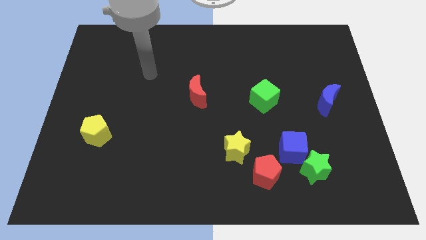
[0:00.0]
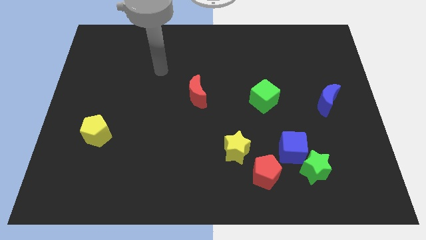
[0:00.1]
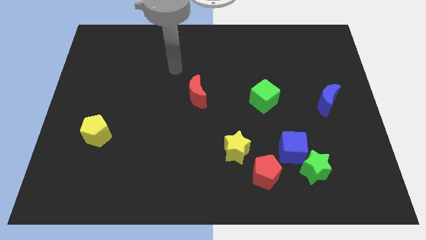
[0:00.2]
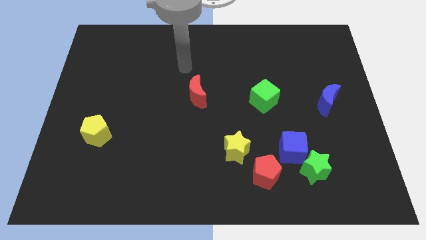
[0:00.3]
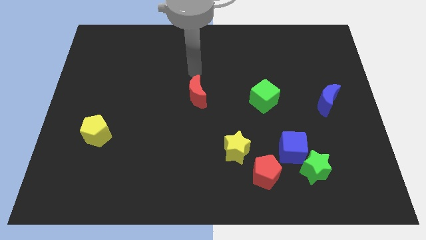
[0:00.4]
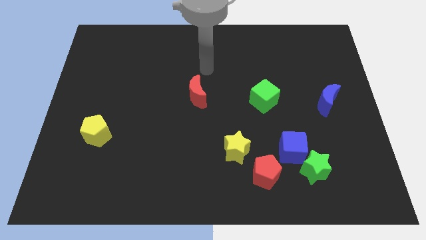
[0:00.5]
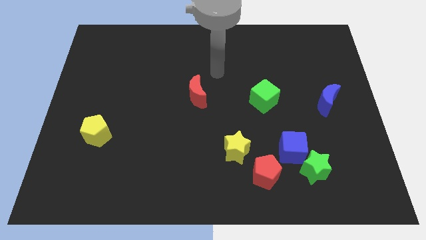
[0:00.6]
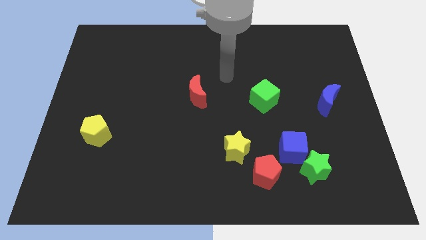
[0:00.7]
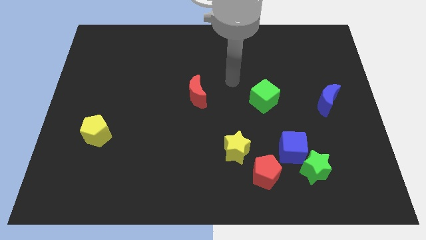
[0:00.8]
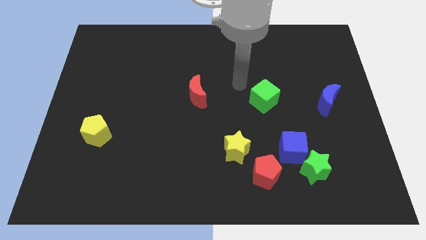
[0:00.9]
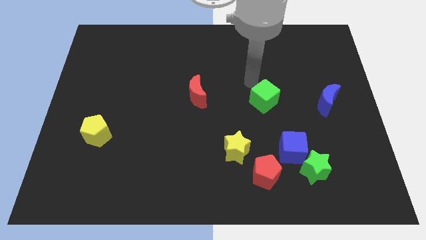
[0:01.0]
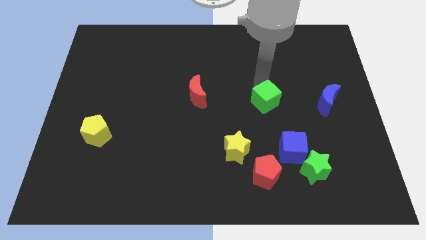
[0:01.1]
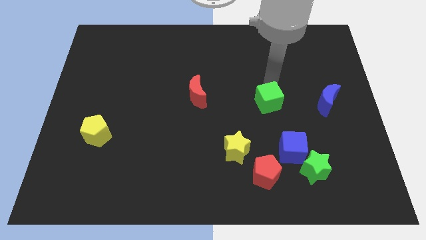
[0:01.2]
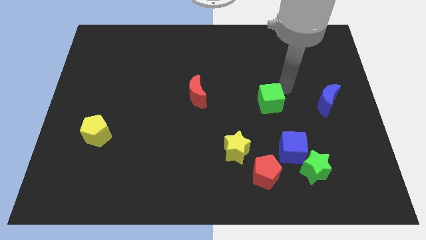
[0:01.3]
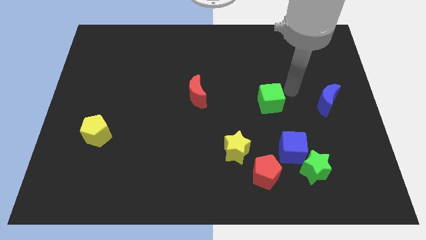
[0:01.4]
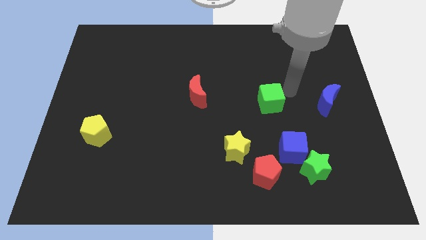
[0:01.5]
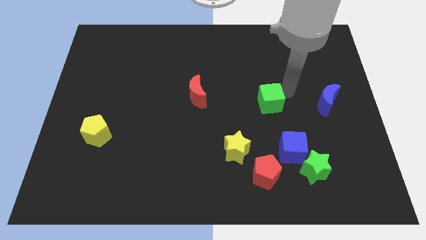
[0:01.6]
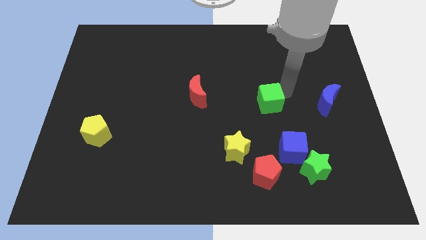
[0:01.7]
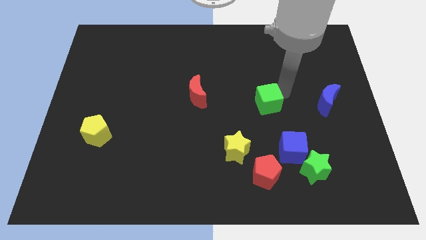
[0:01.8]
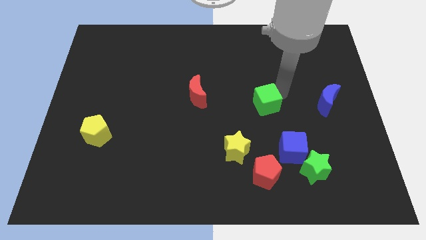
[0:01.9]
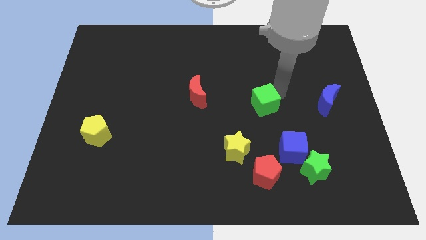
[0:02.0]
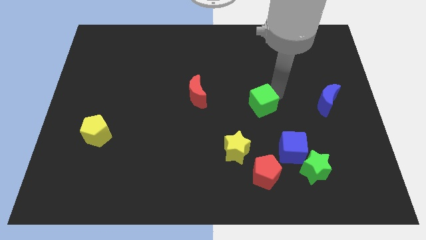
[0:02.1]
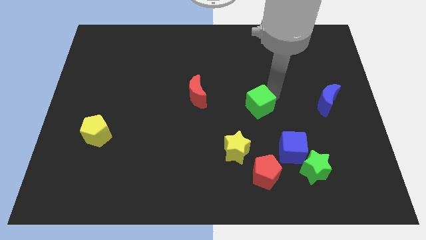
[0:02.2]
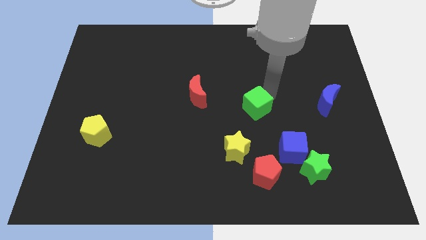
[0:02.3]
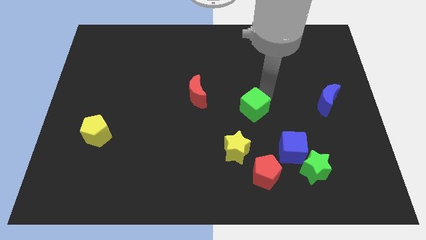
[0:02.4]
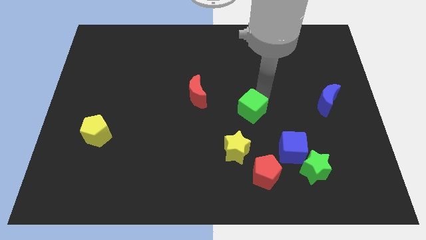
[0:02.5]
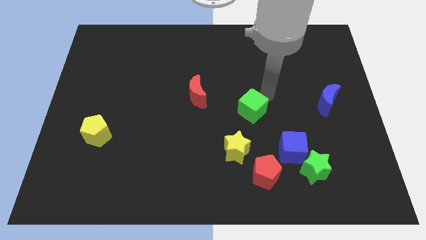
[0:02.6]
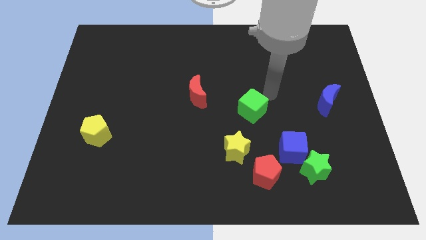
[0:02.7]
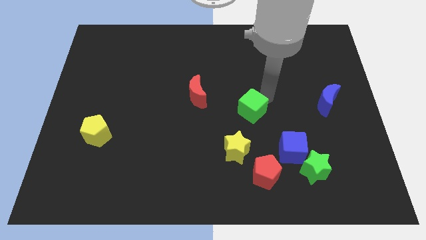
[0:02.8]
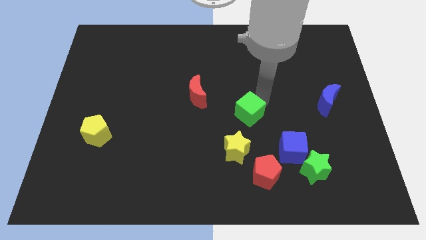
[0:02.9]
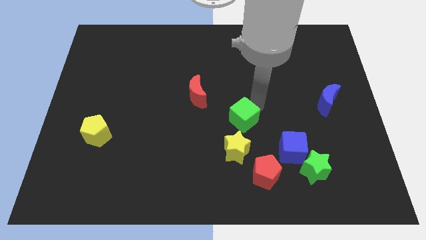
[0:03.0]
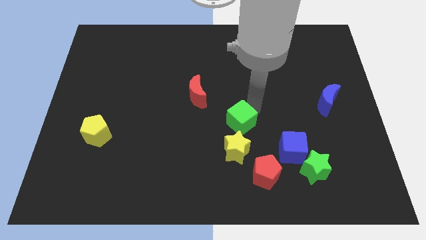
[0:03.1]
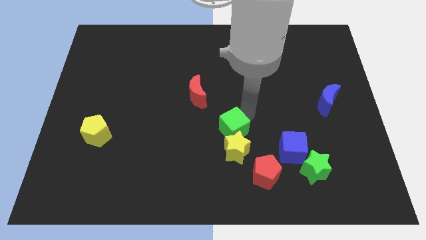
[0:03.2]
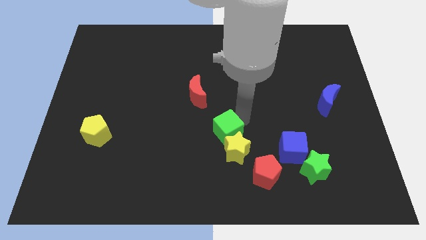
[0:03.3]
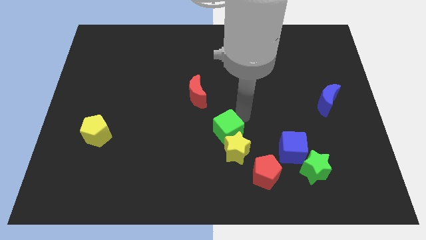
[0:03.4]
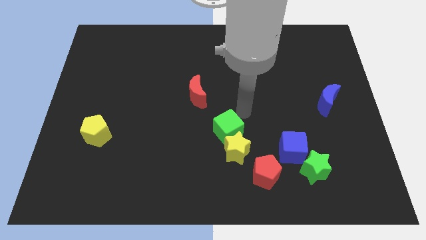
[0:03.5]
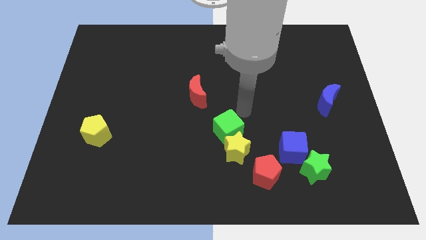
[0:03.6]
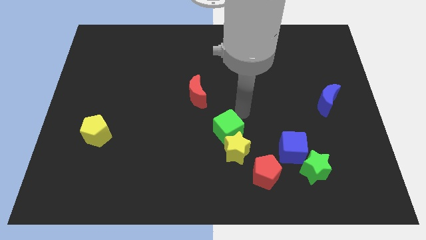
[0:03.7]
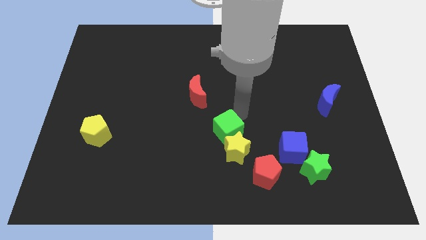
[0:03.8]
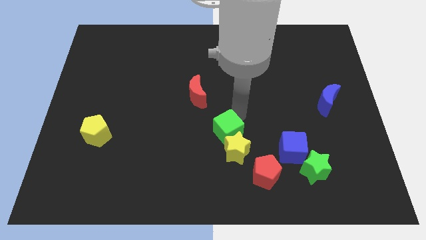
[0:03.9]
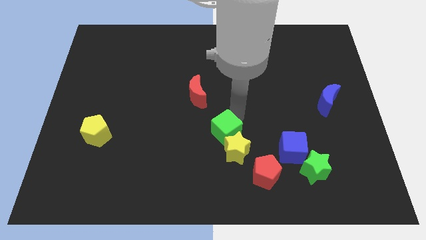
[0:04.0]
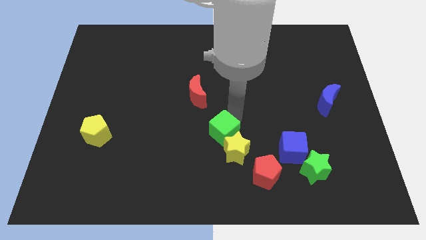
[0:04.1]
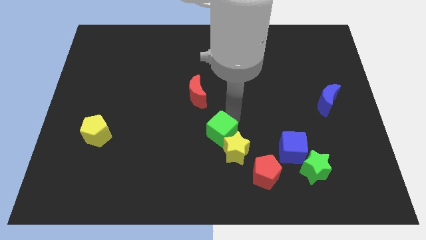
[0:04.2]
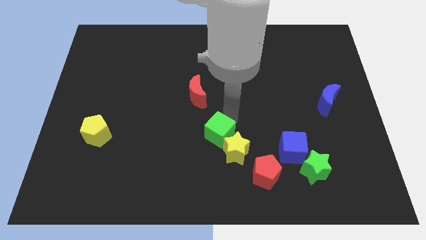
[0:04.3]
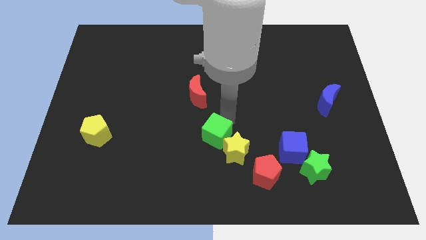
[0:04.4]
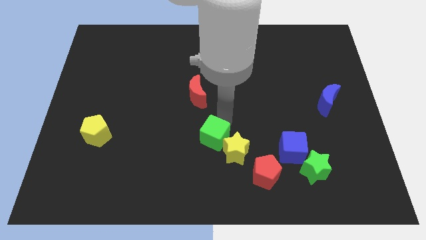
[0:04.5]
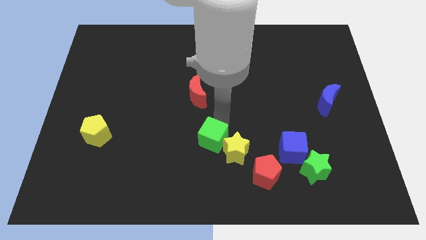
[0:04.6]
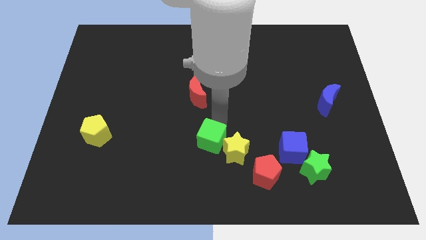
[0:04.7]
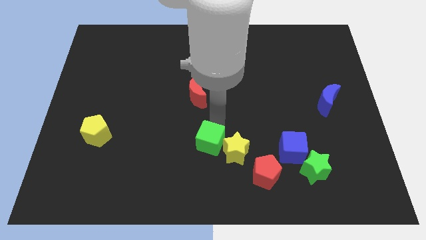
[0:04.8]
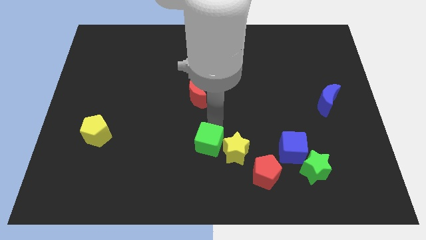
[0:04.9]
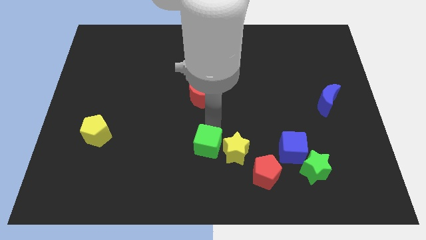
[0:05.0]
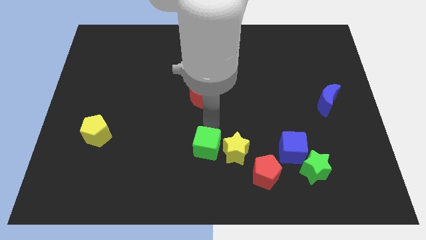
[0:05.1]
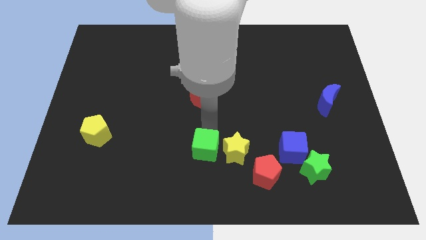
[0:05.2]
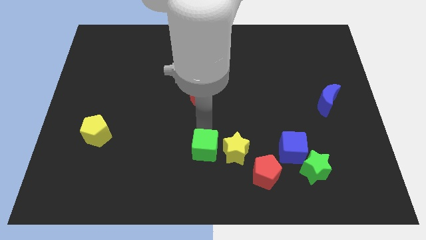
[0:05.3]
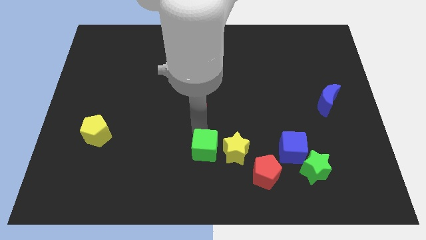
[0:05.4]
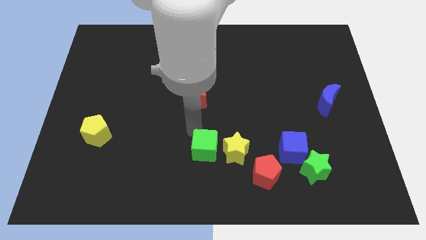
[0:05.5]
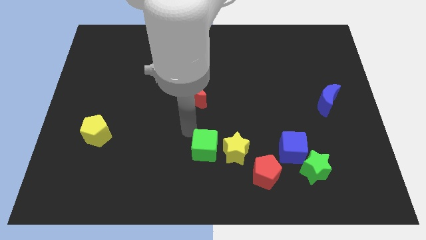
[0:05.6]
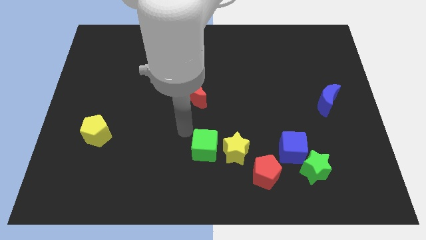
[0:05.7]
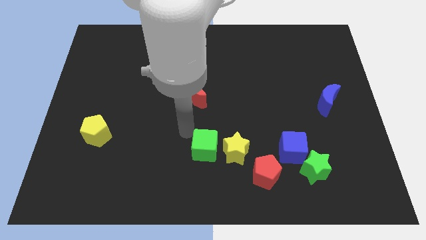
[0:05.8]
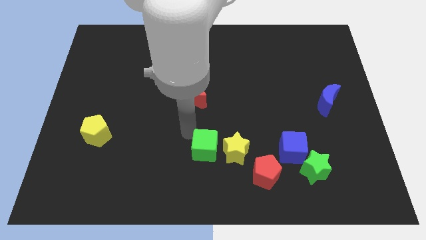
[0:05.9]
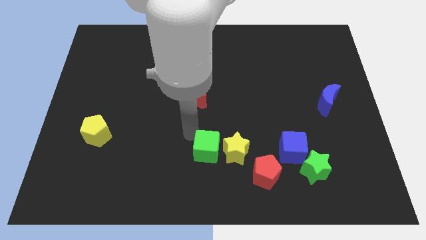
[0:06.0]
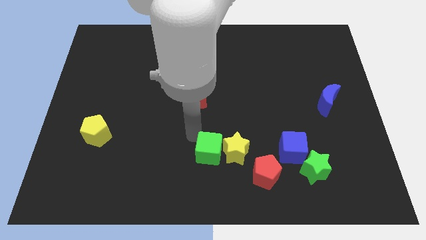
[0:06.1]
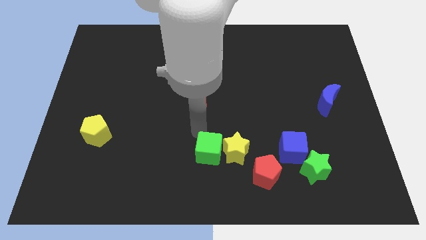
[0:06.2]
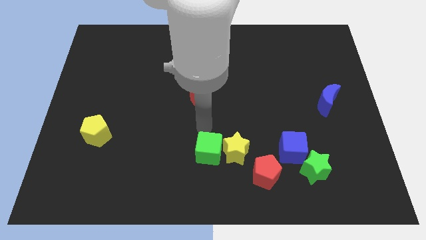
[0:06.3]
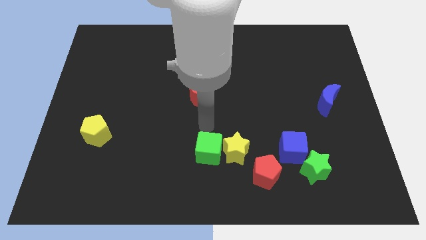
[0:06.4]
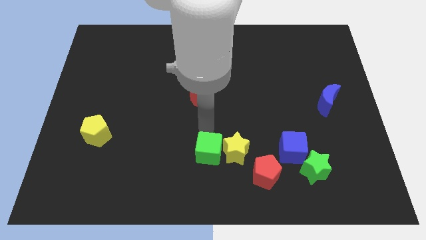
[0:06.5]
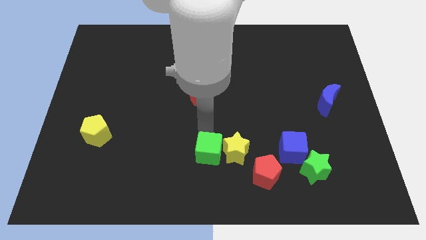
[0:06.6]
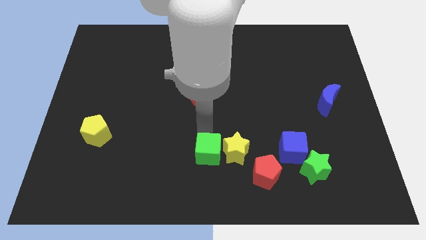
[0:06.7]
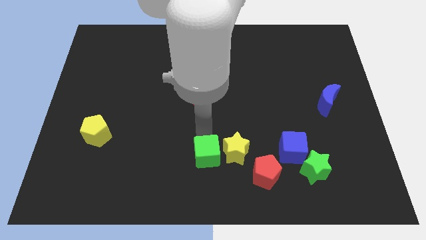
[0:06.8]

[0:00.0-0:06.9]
put the green cube to the bottom

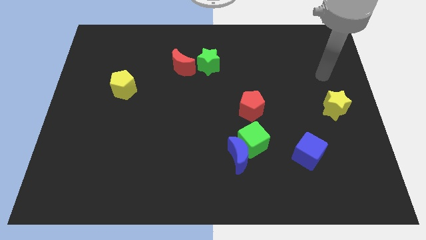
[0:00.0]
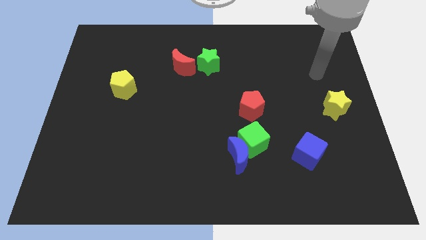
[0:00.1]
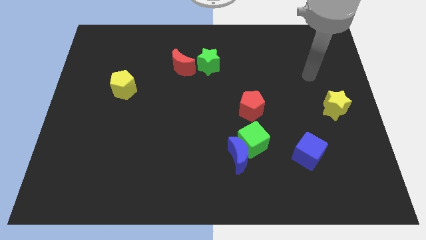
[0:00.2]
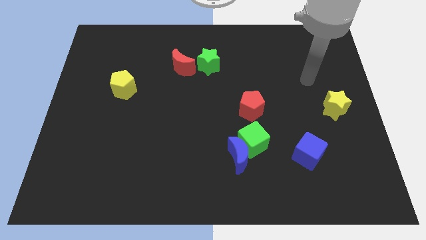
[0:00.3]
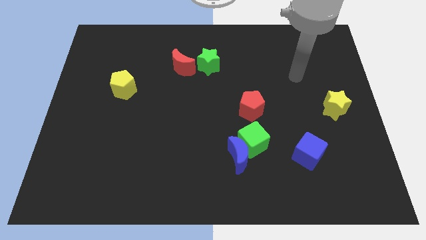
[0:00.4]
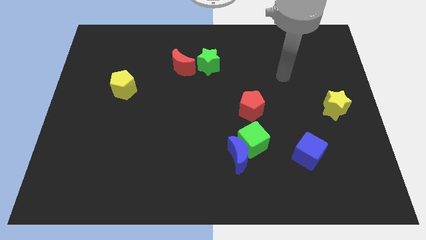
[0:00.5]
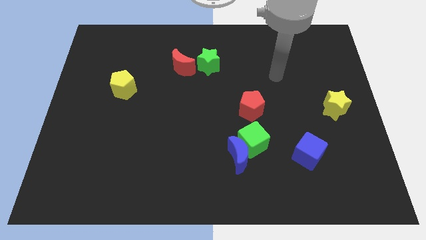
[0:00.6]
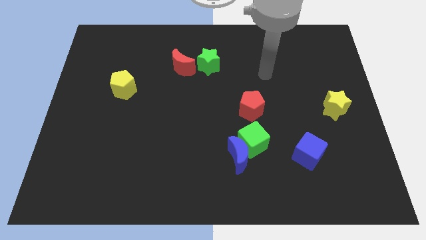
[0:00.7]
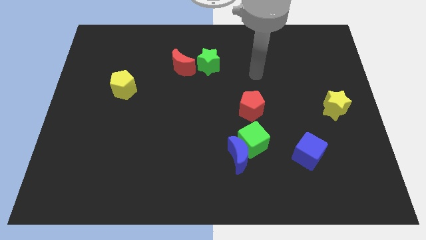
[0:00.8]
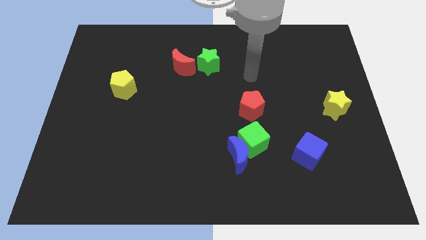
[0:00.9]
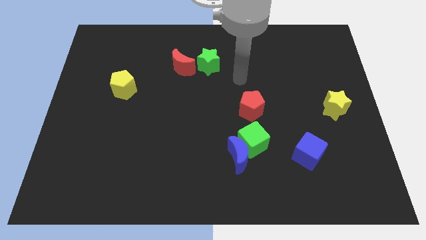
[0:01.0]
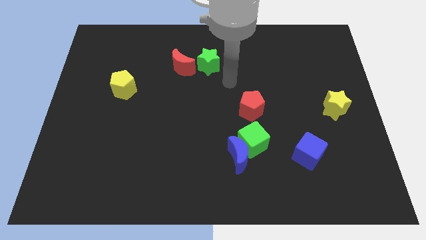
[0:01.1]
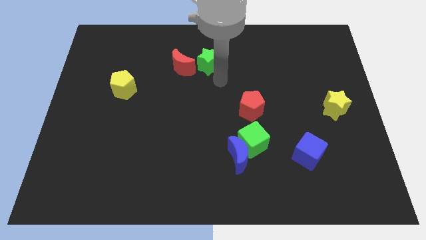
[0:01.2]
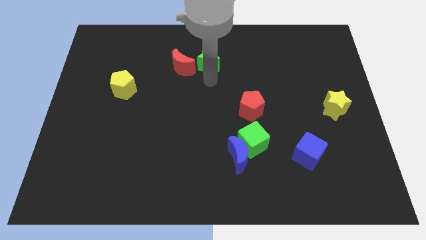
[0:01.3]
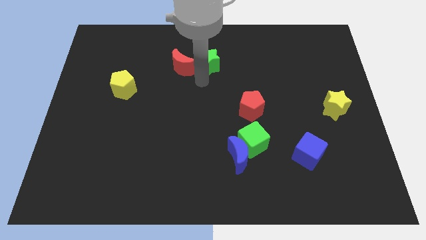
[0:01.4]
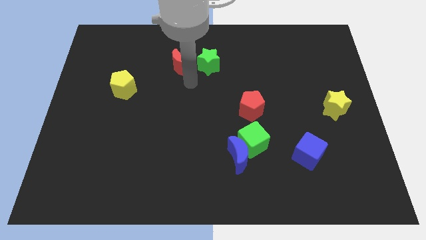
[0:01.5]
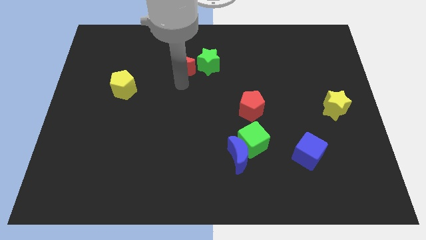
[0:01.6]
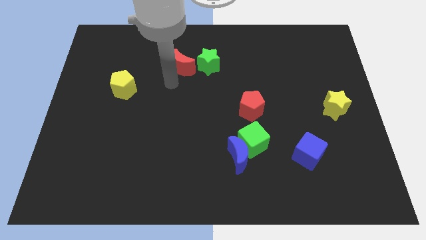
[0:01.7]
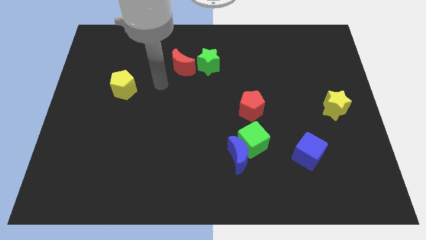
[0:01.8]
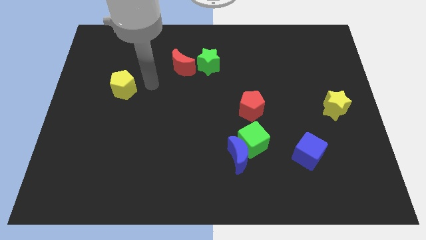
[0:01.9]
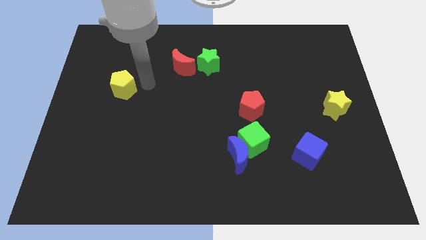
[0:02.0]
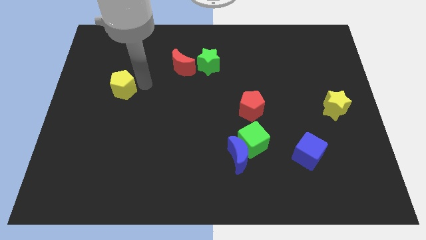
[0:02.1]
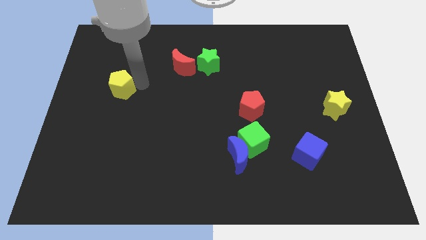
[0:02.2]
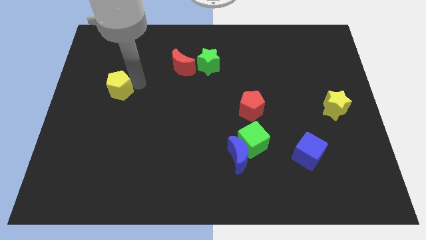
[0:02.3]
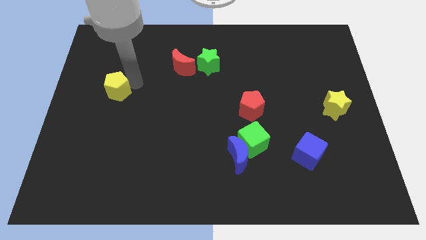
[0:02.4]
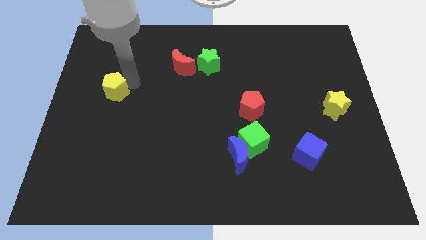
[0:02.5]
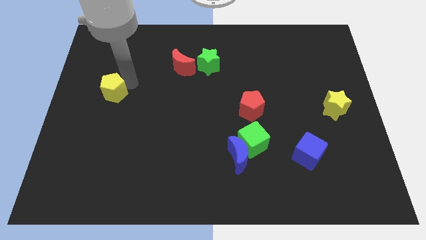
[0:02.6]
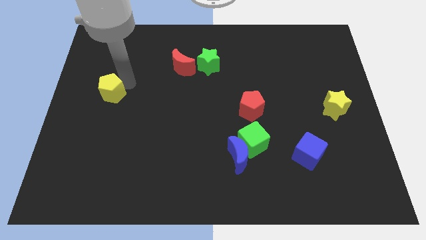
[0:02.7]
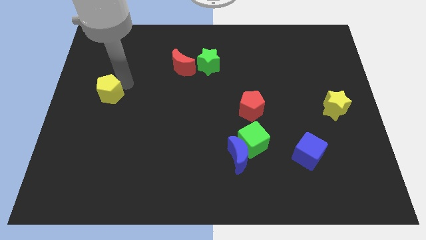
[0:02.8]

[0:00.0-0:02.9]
put the yellow pentagon to the left side
